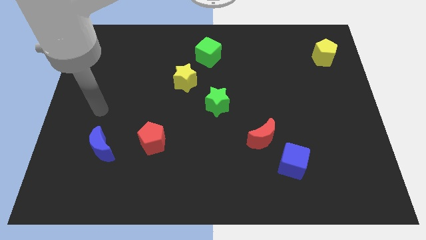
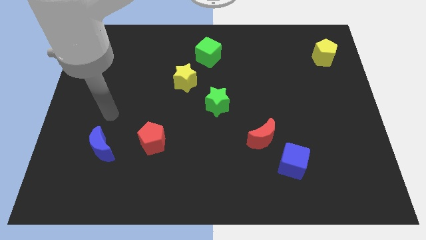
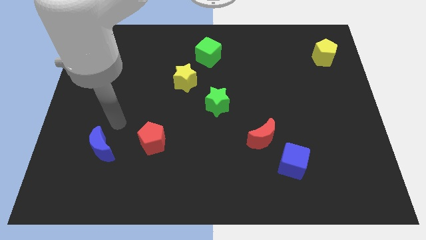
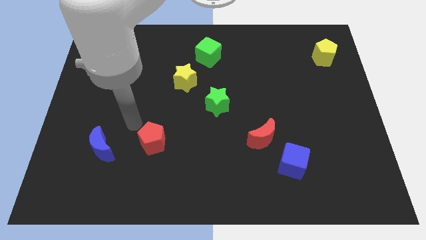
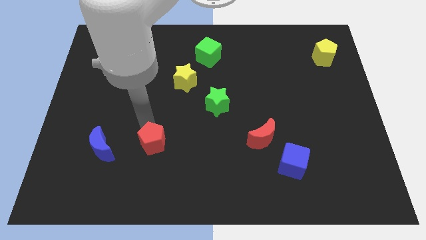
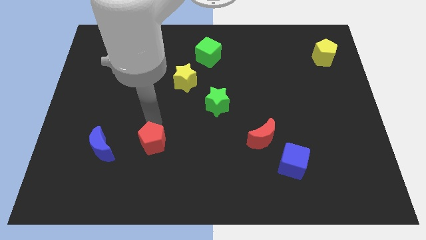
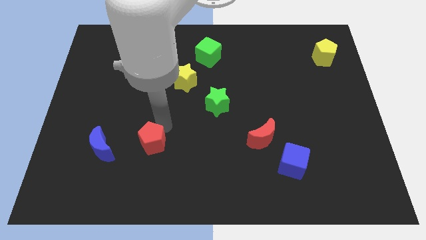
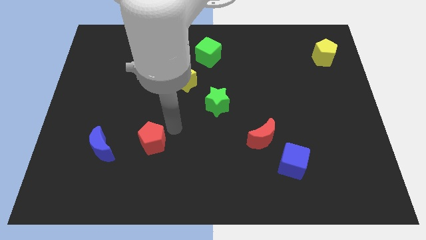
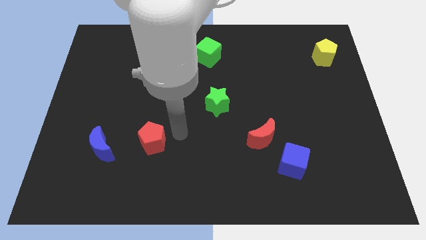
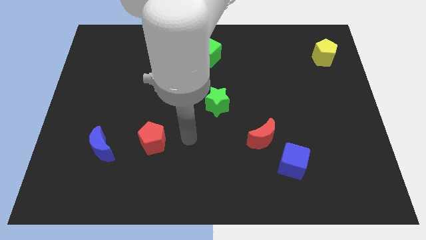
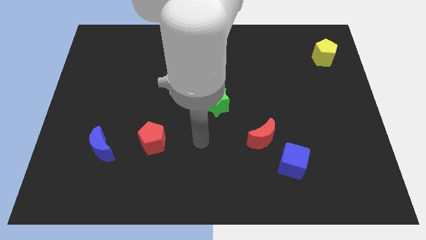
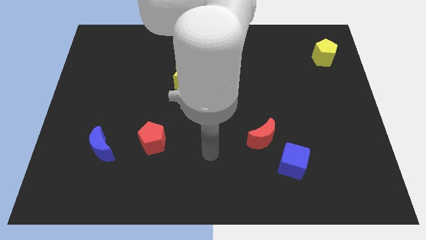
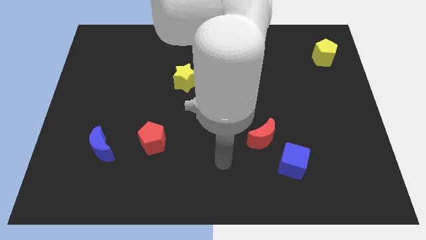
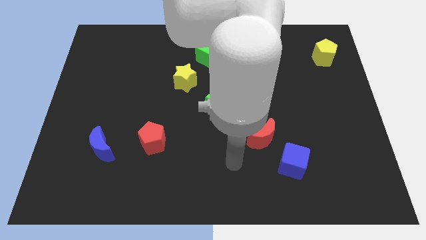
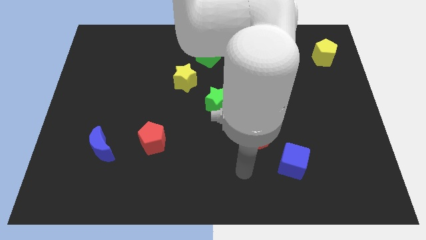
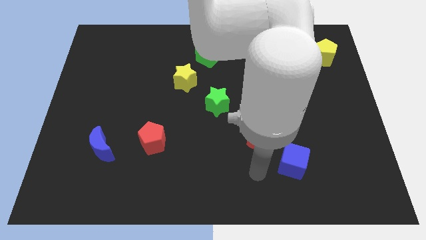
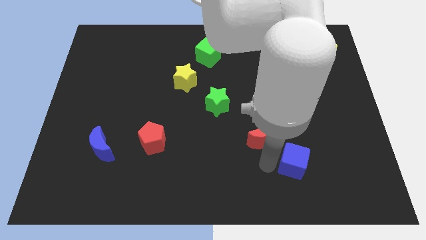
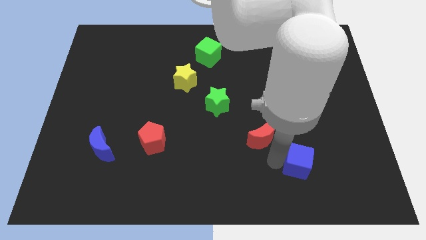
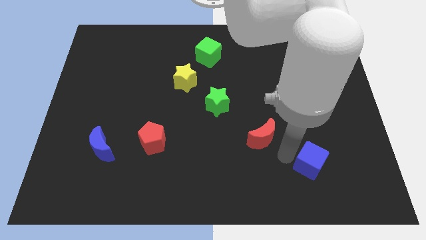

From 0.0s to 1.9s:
move the red moon away from the blue cube

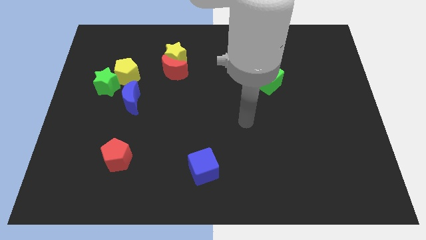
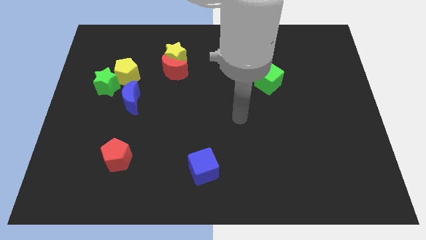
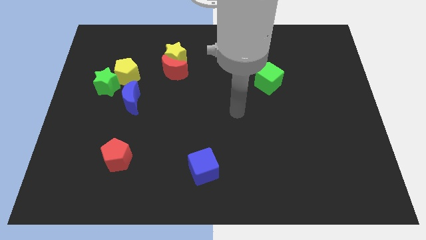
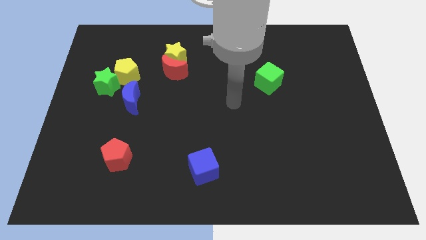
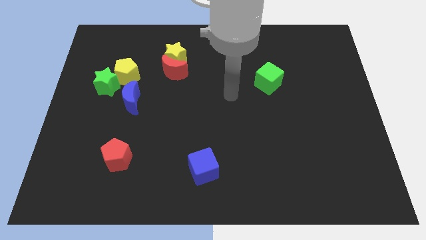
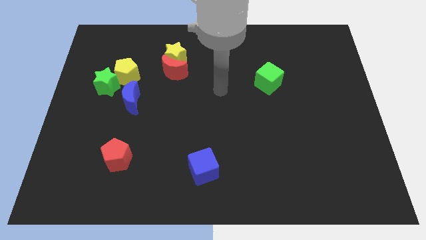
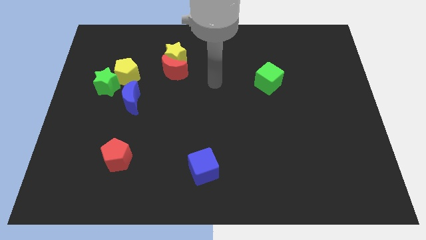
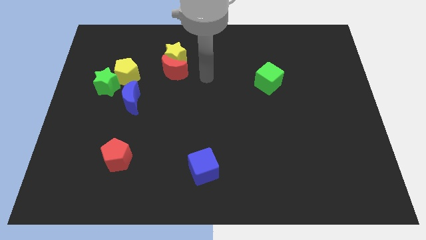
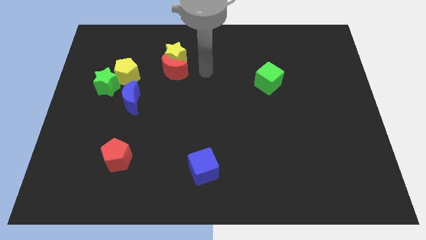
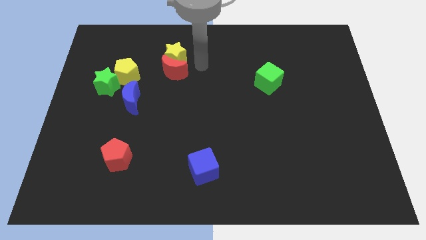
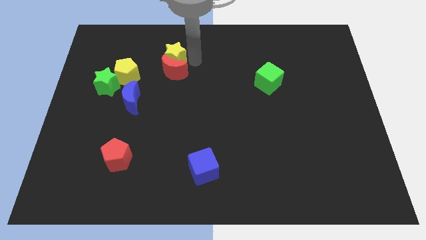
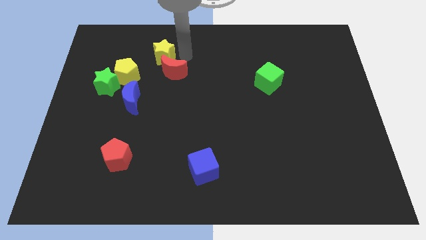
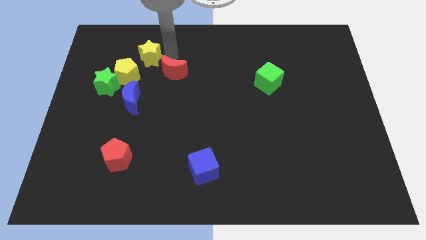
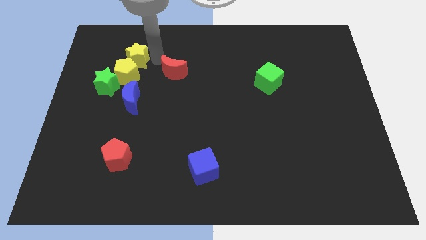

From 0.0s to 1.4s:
move the red moon away from the yellow star

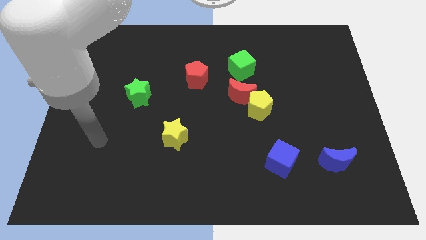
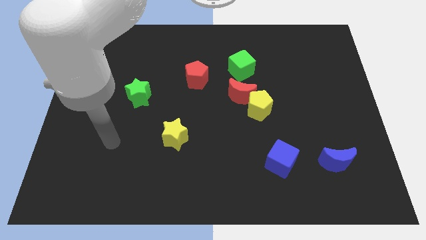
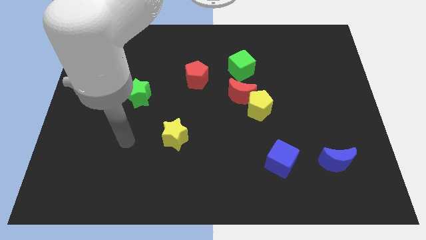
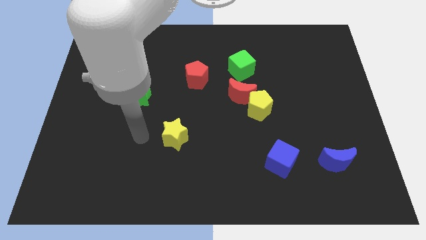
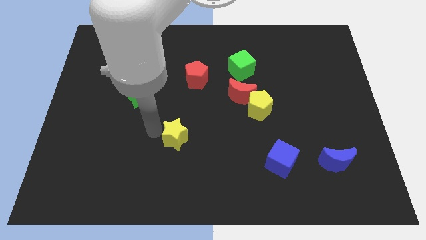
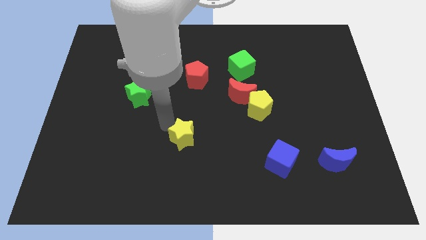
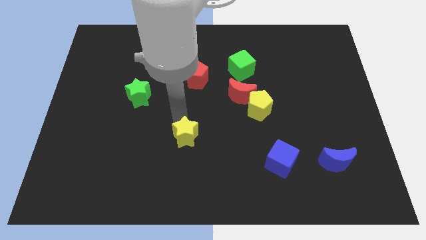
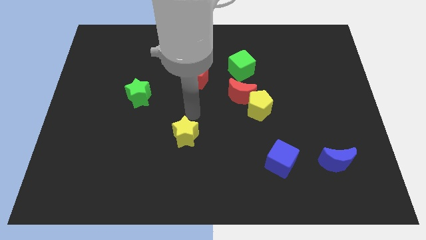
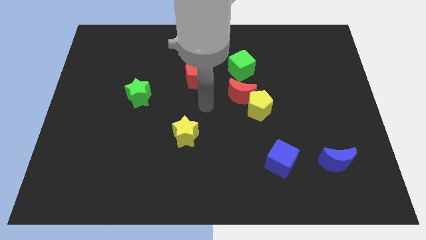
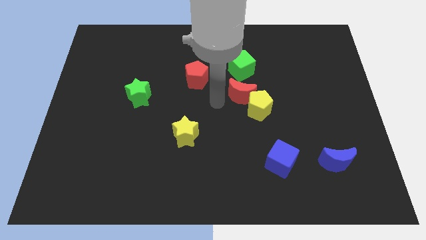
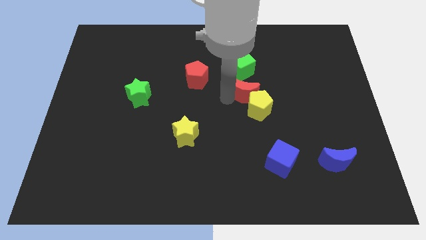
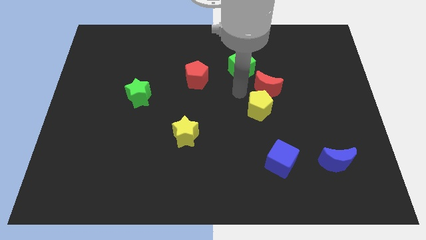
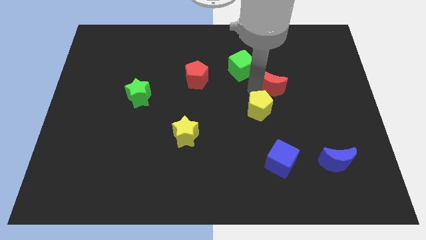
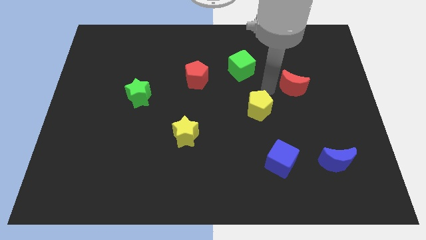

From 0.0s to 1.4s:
separate the yellow pentagon from the red moon

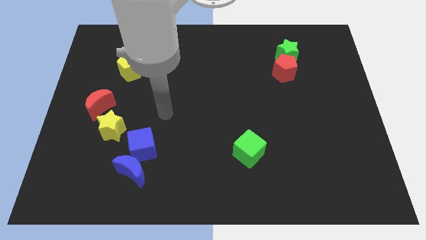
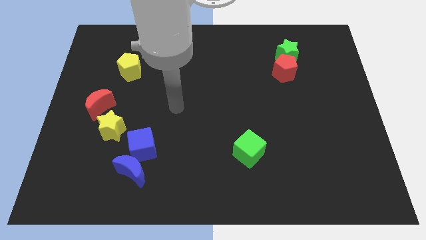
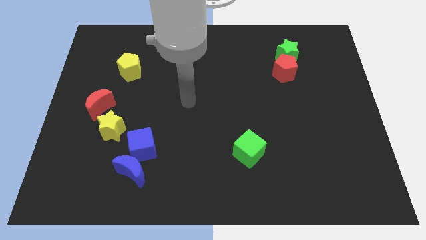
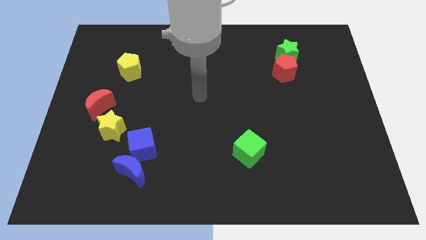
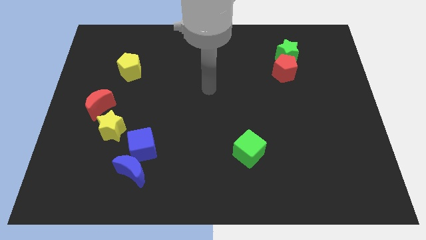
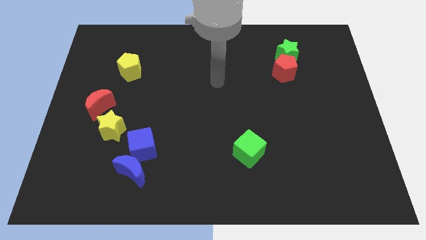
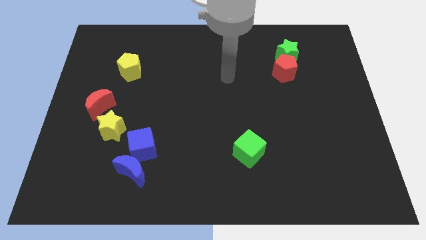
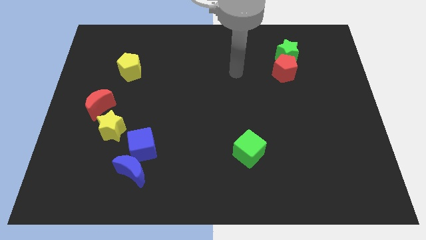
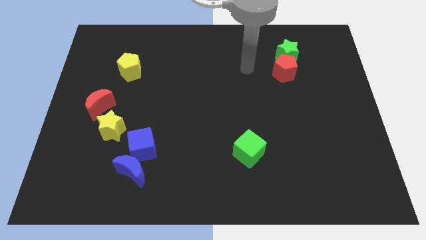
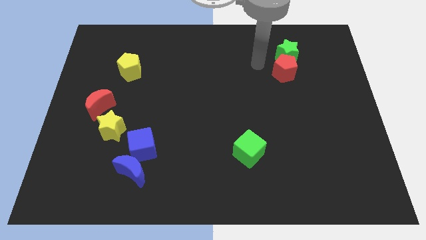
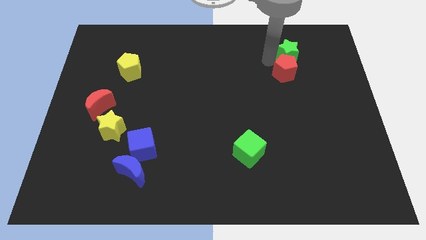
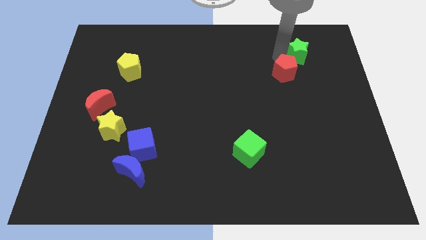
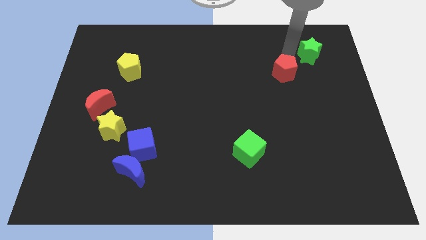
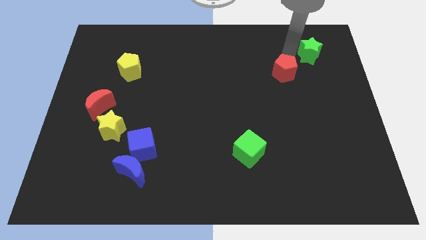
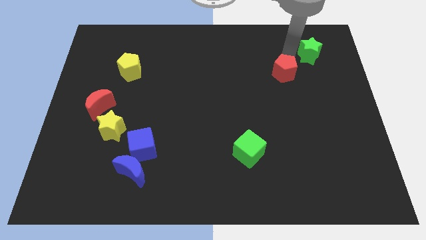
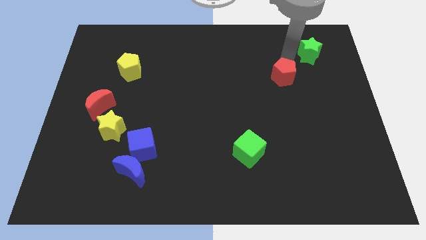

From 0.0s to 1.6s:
separate the red pentagon from the green star

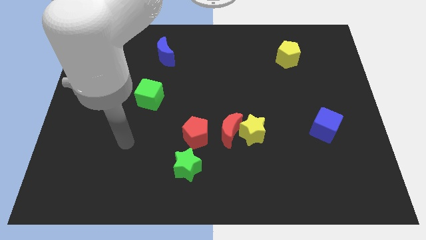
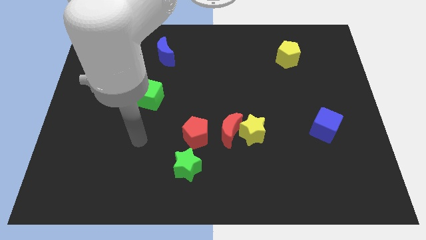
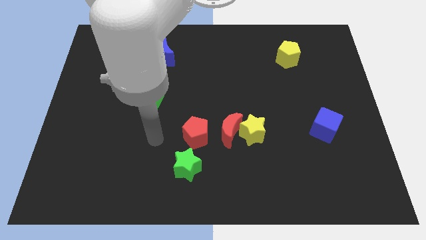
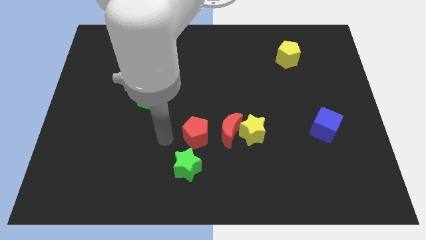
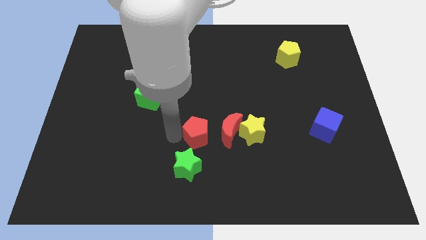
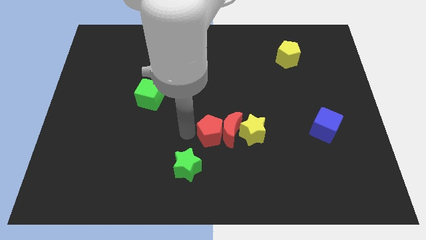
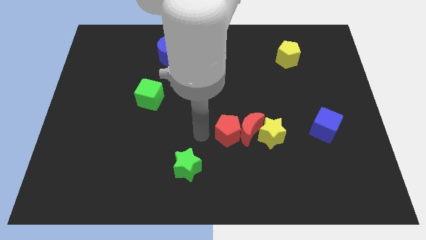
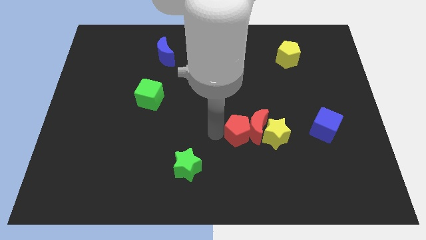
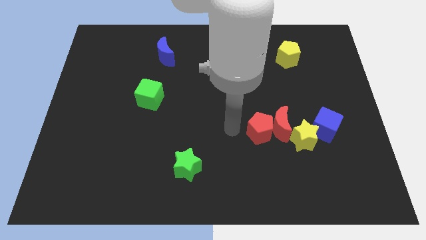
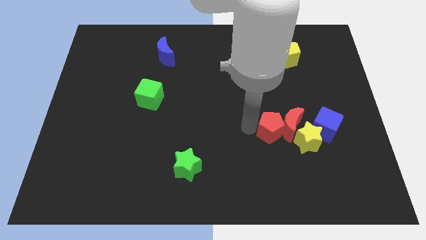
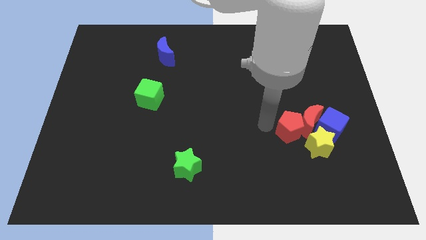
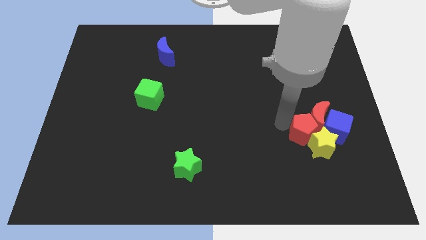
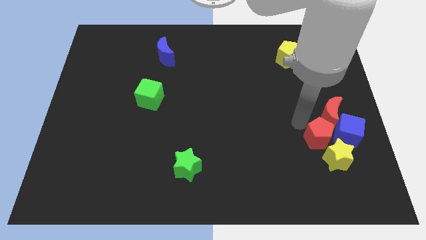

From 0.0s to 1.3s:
move the yellow star away from the red moon

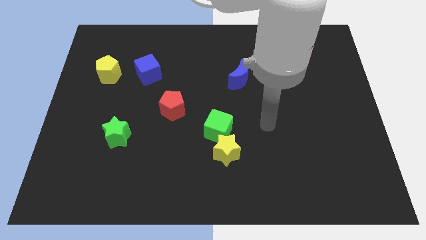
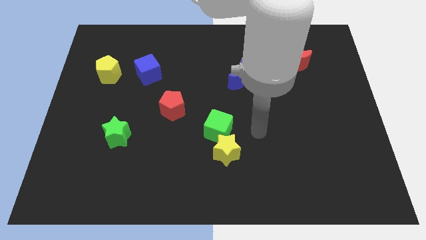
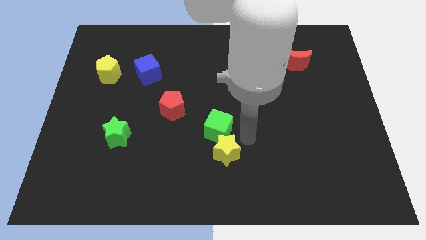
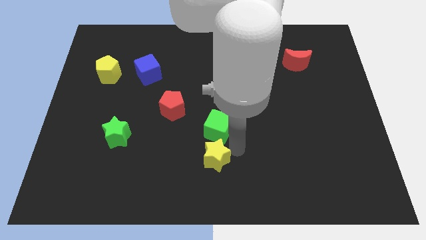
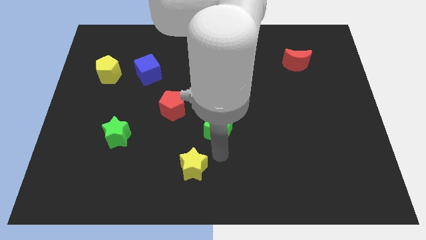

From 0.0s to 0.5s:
move the green cube away from the yellow star

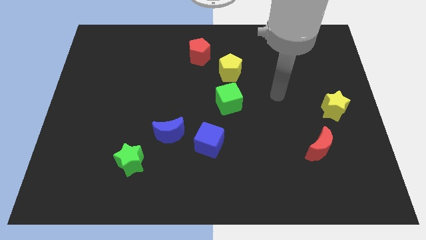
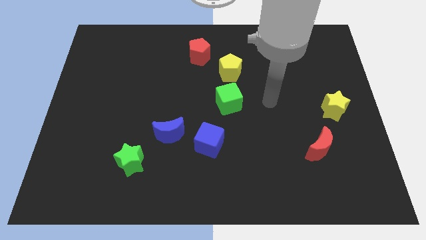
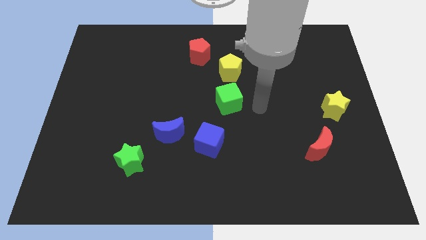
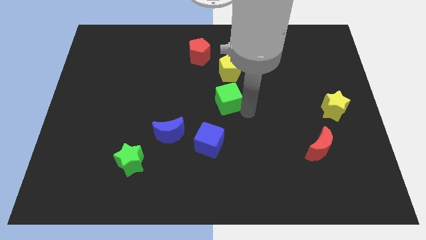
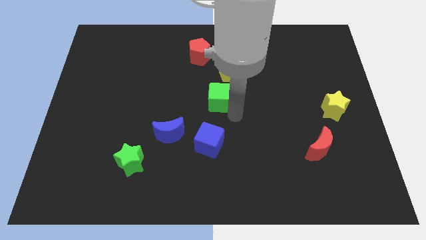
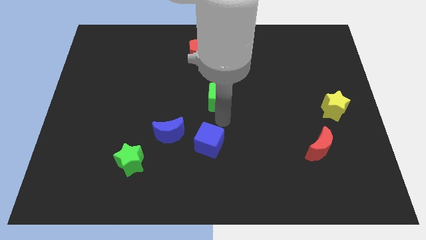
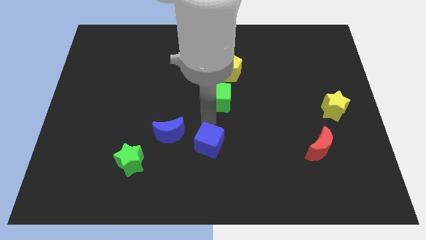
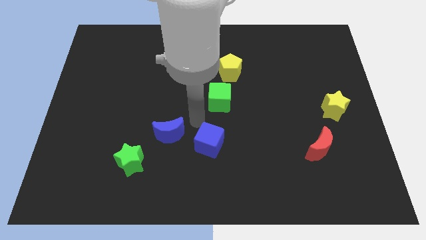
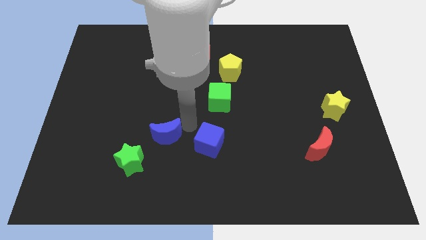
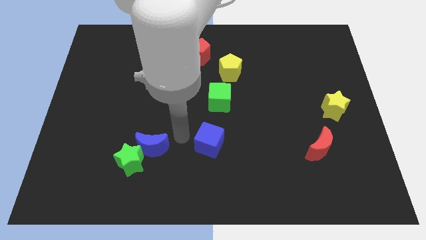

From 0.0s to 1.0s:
pull the blue cube apart from the blue moon

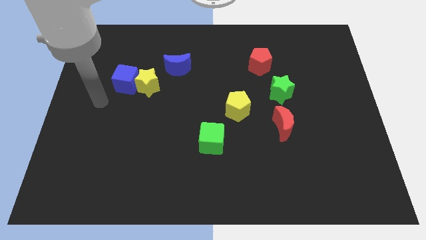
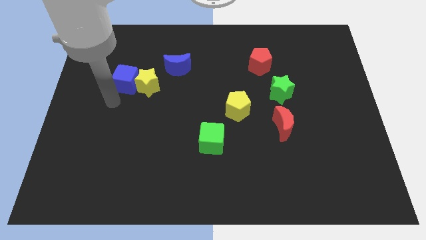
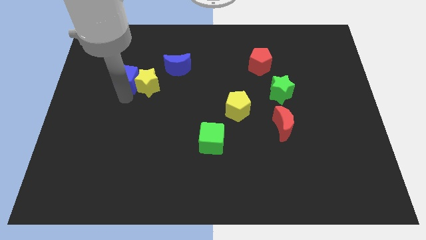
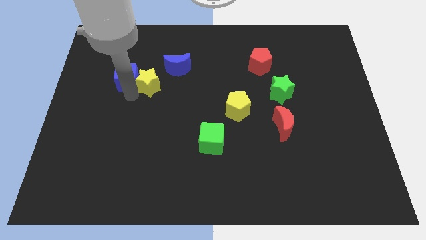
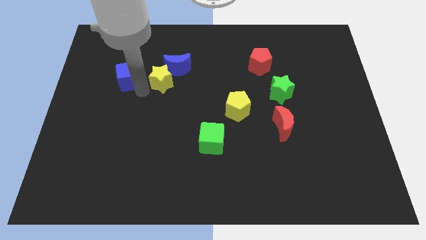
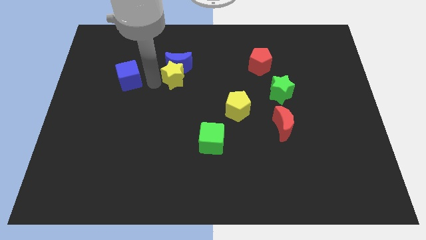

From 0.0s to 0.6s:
pull the blue cube apart from the yellow star
